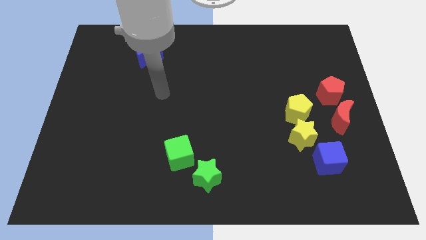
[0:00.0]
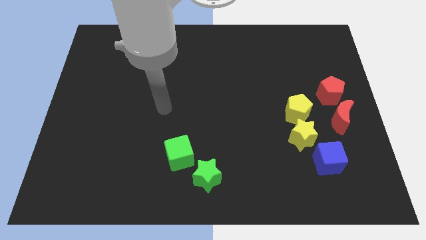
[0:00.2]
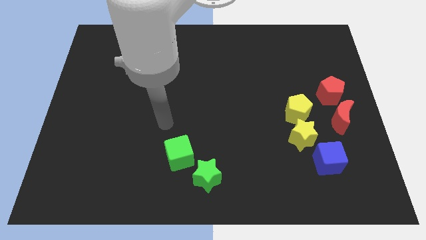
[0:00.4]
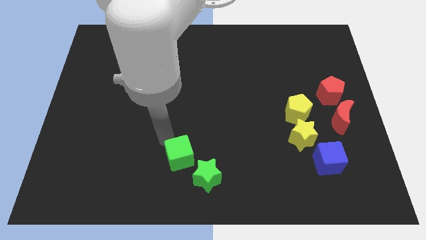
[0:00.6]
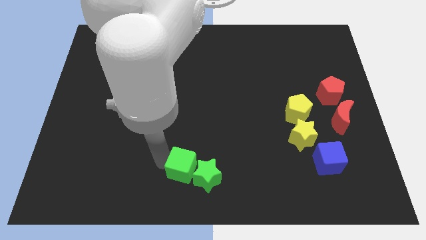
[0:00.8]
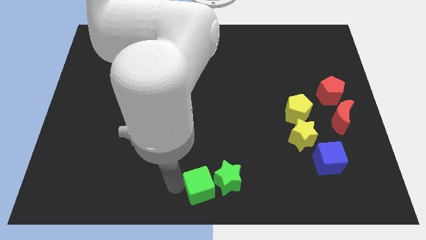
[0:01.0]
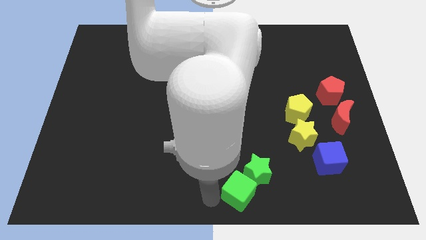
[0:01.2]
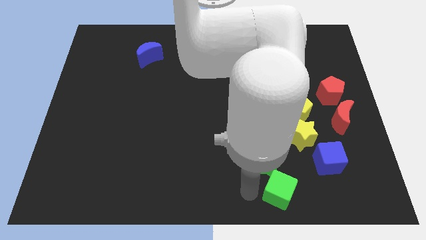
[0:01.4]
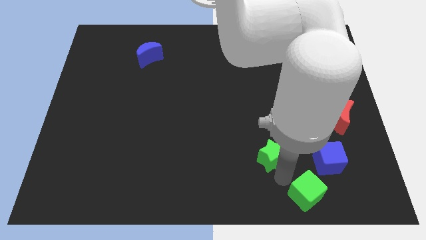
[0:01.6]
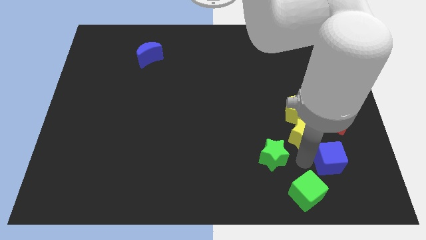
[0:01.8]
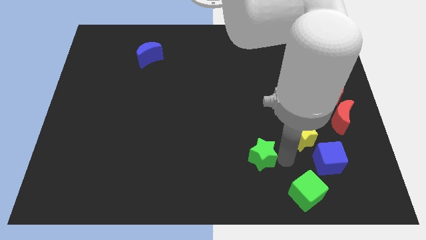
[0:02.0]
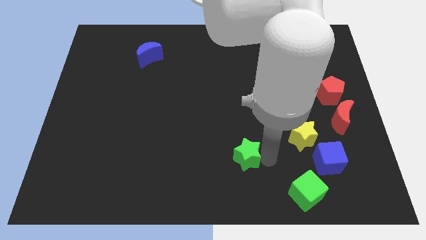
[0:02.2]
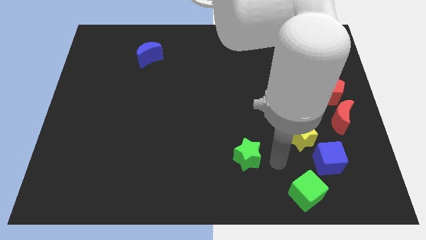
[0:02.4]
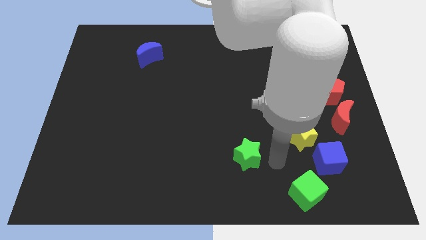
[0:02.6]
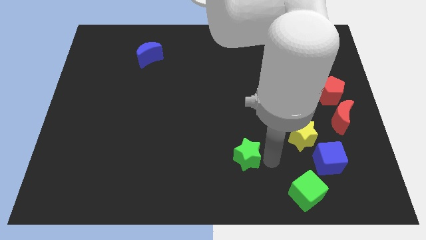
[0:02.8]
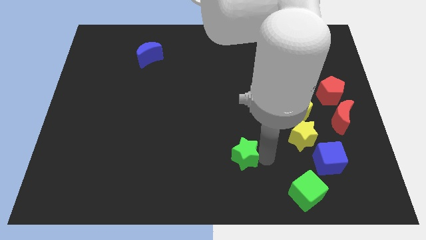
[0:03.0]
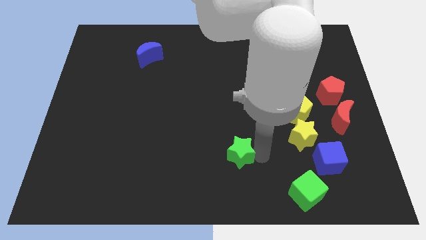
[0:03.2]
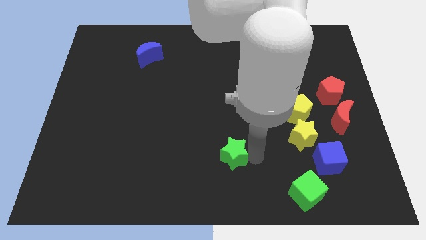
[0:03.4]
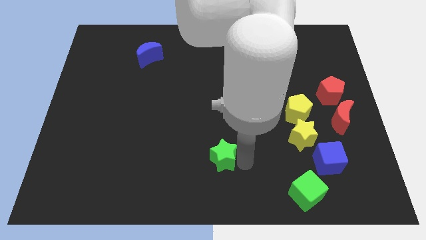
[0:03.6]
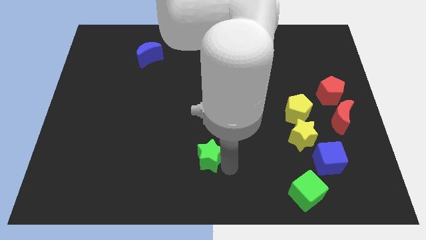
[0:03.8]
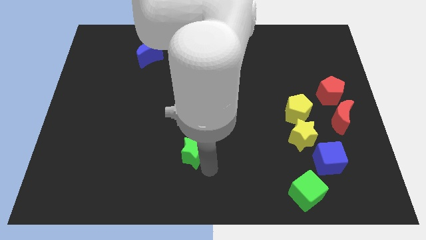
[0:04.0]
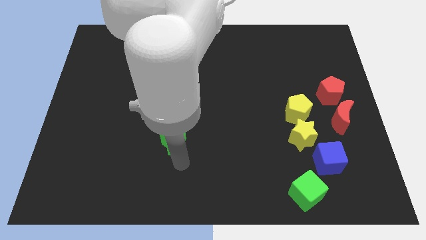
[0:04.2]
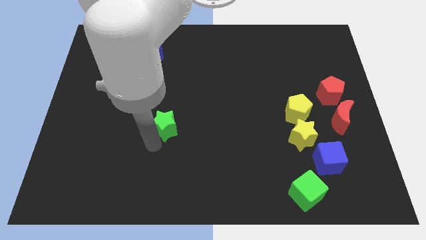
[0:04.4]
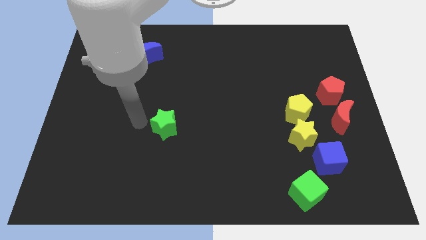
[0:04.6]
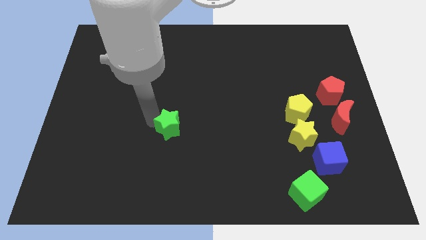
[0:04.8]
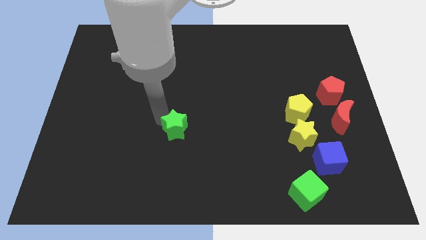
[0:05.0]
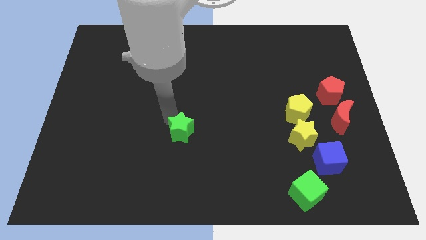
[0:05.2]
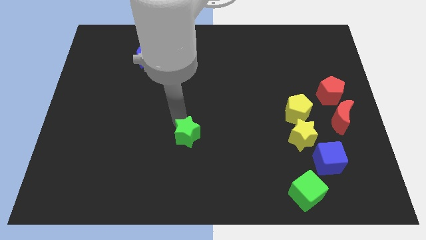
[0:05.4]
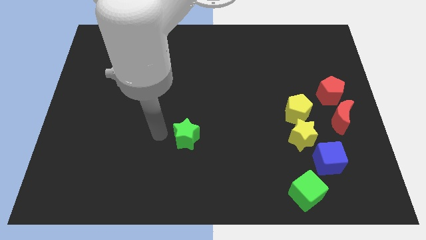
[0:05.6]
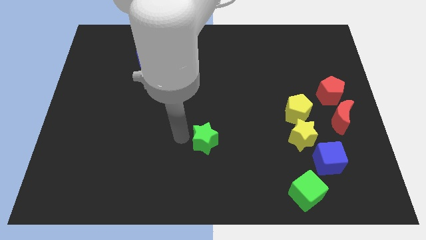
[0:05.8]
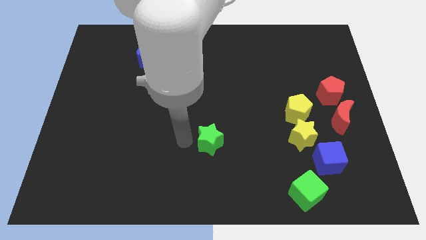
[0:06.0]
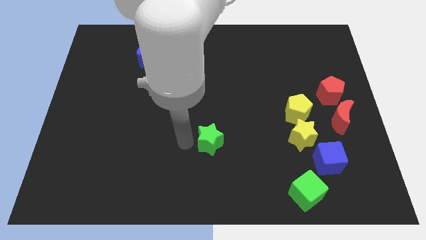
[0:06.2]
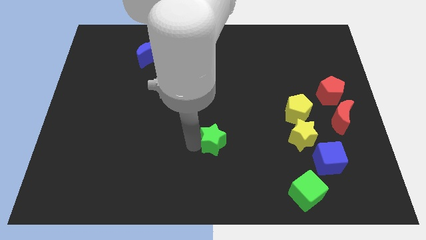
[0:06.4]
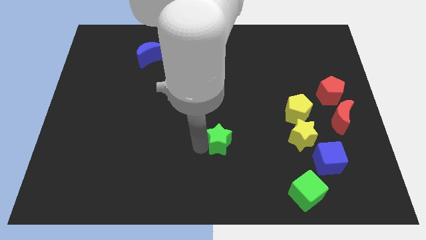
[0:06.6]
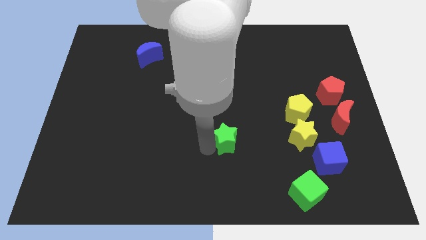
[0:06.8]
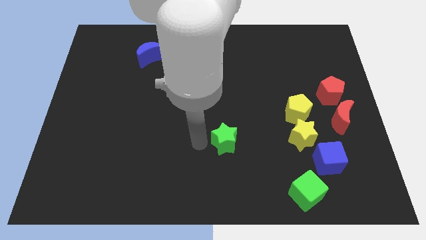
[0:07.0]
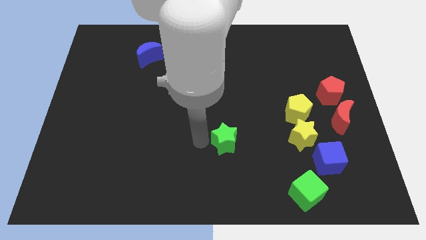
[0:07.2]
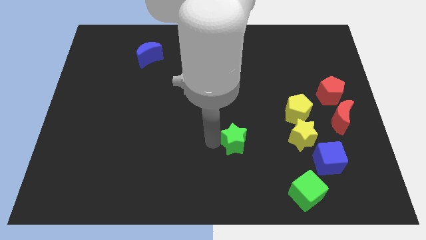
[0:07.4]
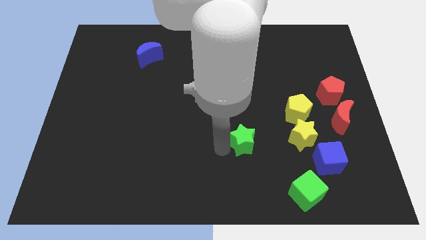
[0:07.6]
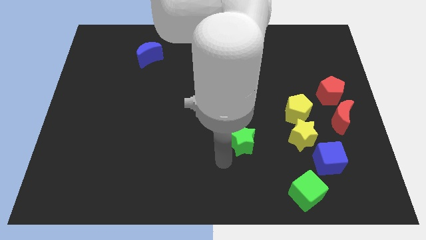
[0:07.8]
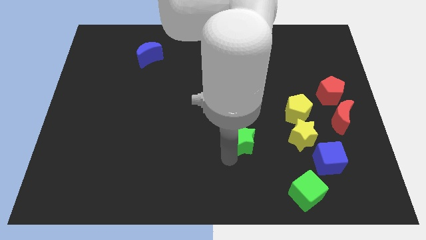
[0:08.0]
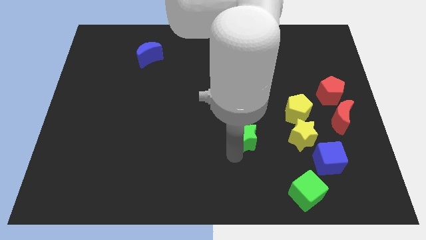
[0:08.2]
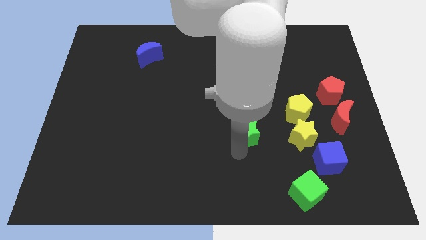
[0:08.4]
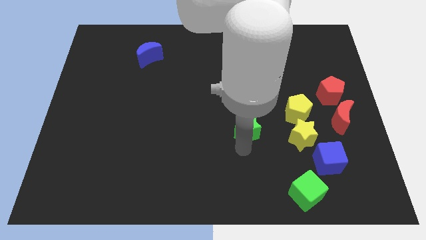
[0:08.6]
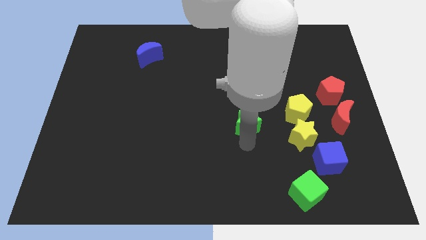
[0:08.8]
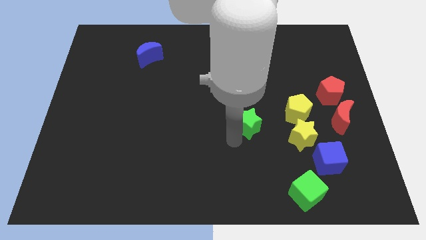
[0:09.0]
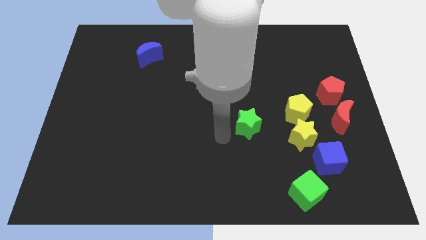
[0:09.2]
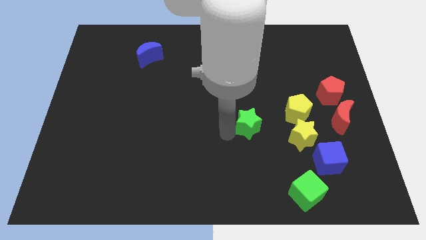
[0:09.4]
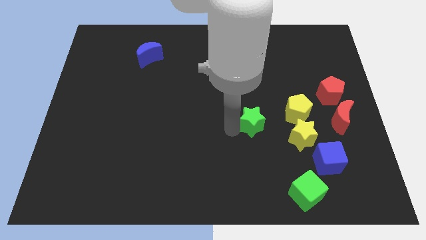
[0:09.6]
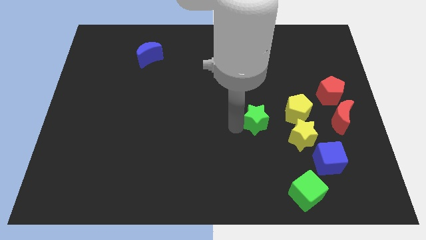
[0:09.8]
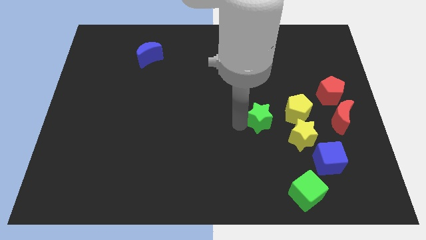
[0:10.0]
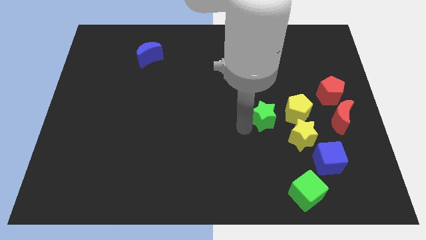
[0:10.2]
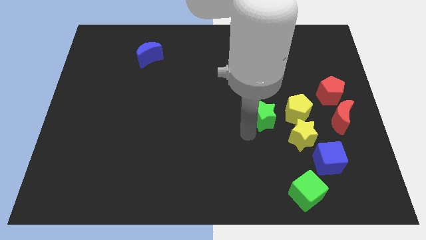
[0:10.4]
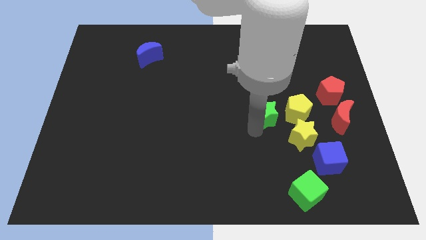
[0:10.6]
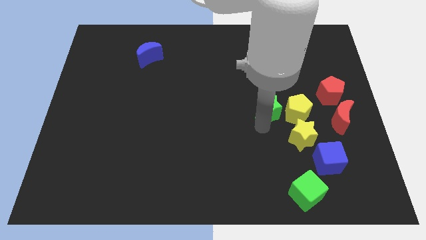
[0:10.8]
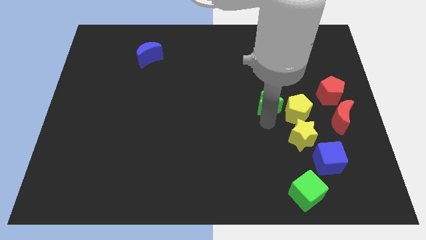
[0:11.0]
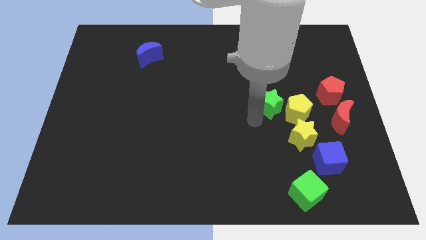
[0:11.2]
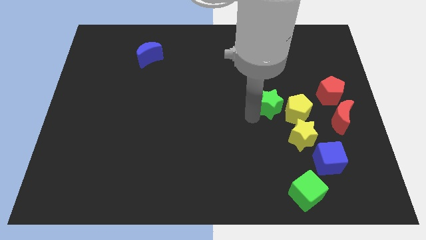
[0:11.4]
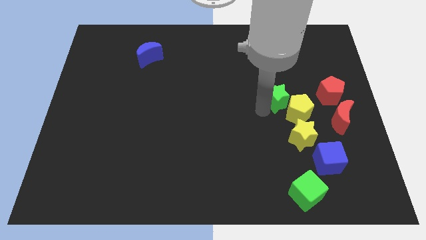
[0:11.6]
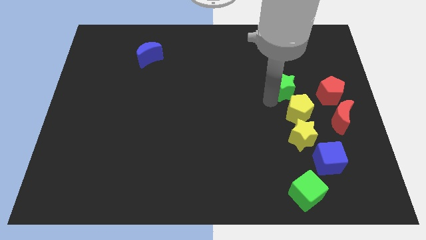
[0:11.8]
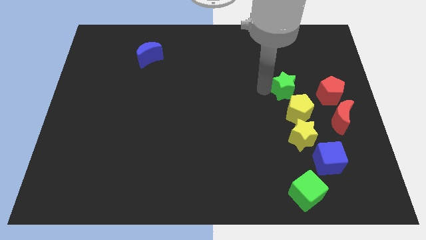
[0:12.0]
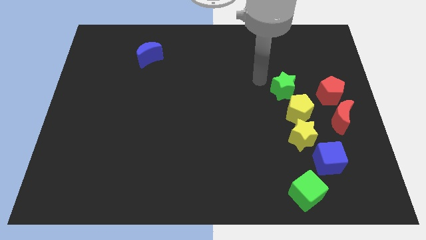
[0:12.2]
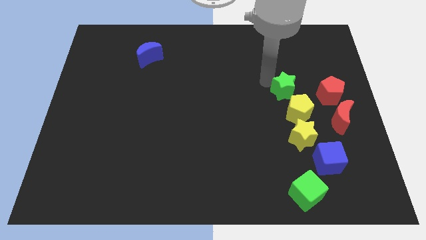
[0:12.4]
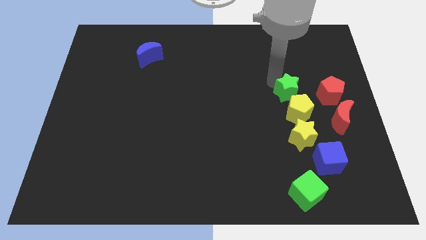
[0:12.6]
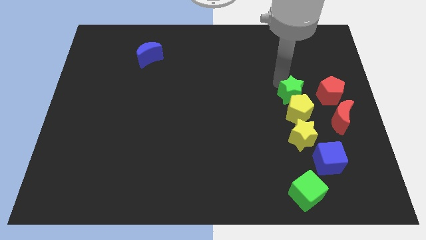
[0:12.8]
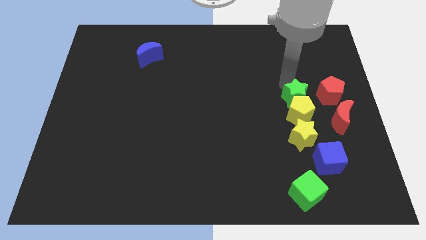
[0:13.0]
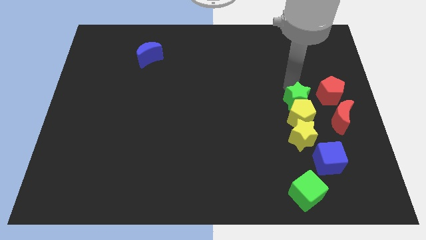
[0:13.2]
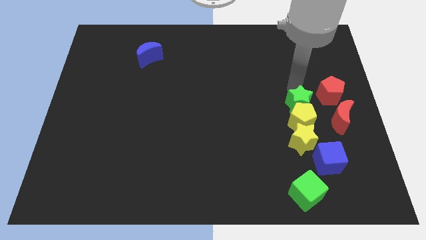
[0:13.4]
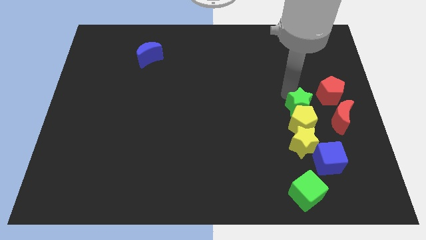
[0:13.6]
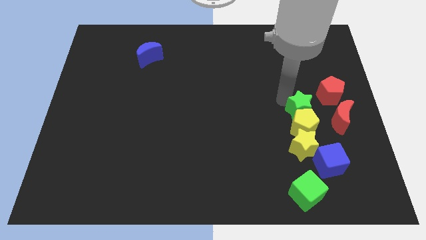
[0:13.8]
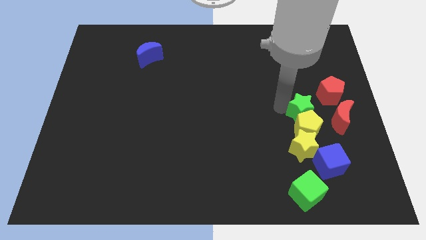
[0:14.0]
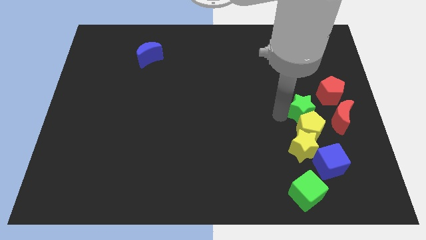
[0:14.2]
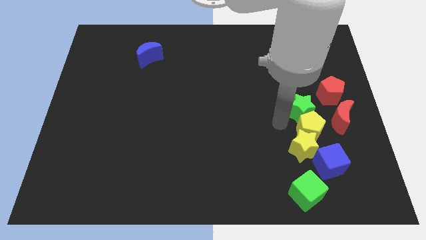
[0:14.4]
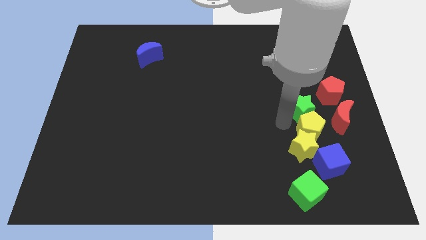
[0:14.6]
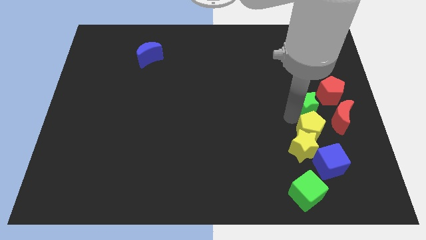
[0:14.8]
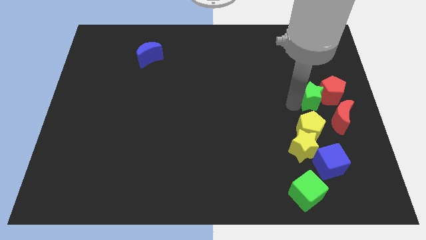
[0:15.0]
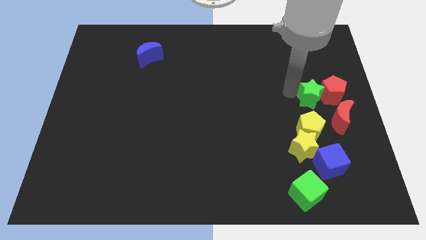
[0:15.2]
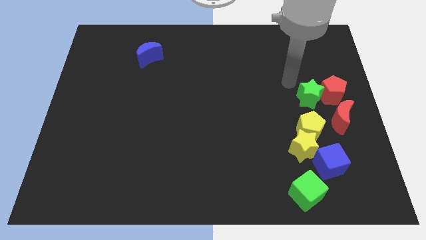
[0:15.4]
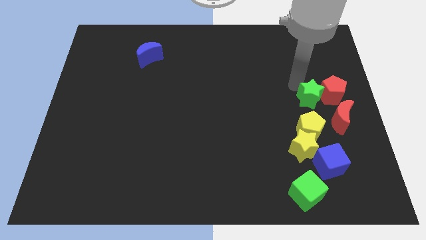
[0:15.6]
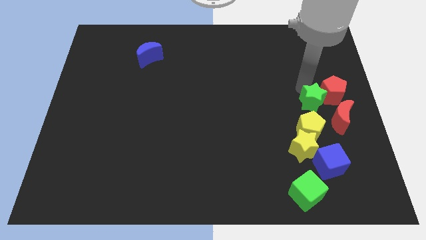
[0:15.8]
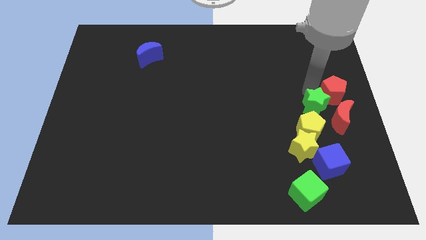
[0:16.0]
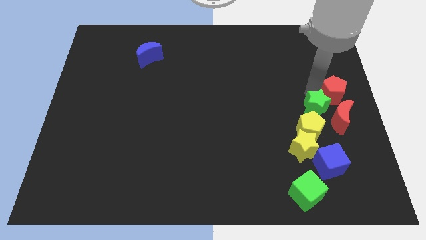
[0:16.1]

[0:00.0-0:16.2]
move the green star next to the red moon
